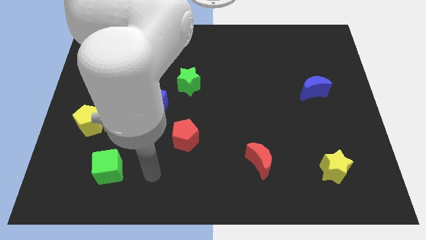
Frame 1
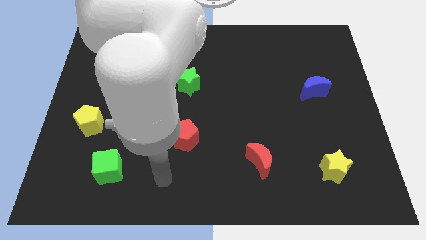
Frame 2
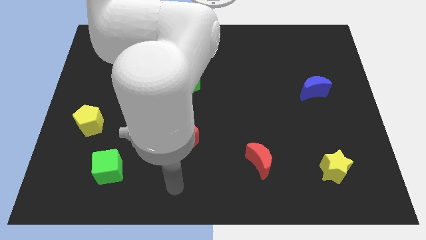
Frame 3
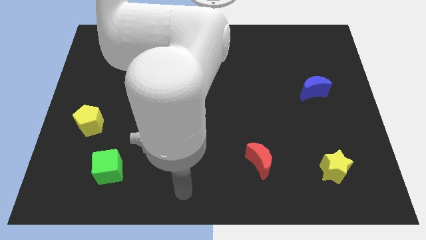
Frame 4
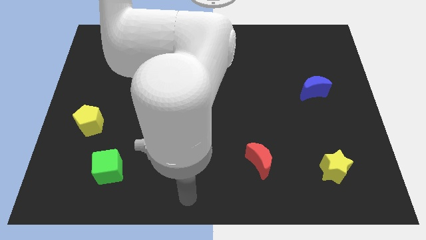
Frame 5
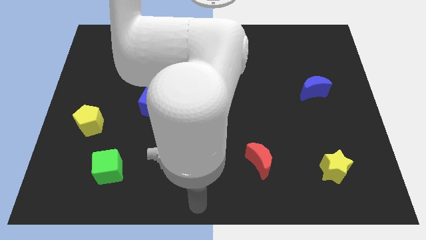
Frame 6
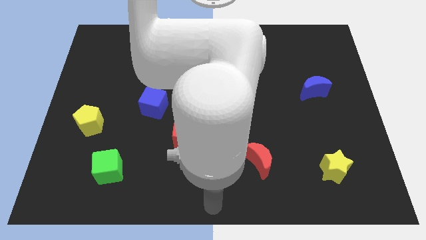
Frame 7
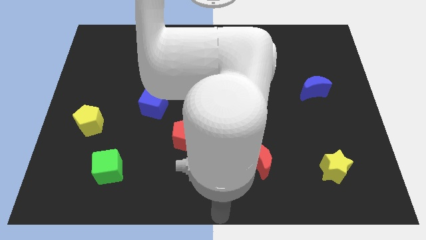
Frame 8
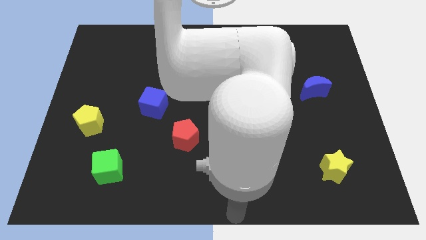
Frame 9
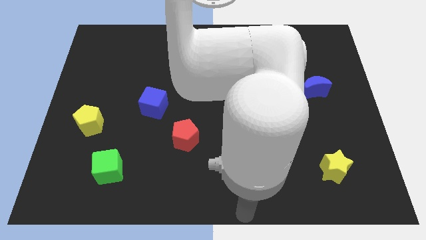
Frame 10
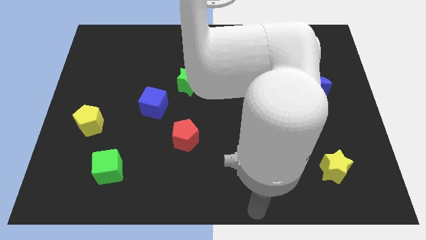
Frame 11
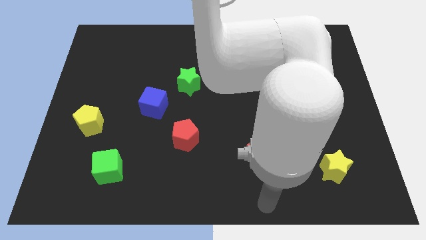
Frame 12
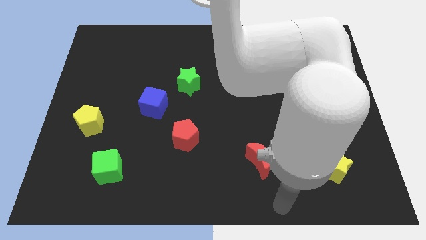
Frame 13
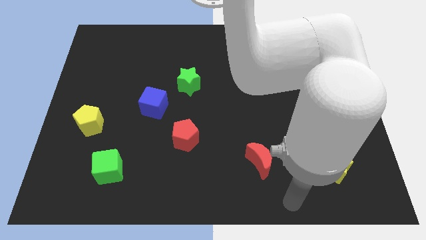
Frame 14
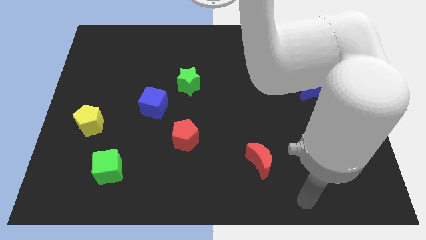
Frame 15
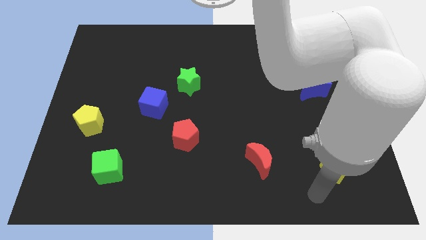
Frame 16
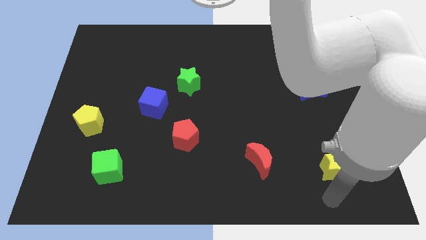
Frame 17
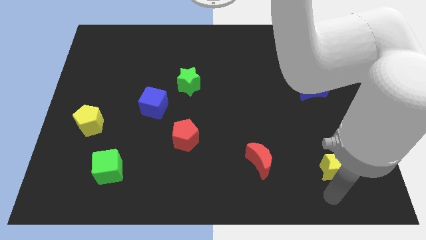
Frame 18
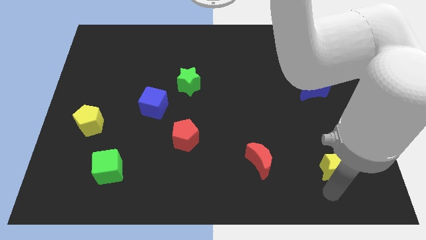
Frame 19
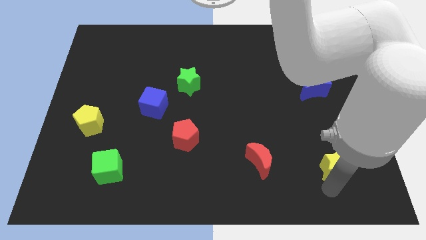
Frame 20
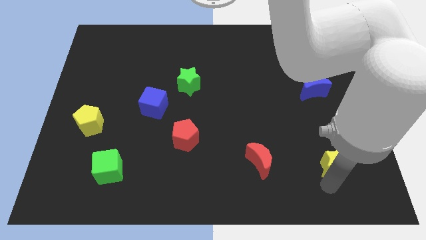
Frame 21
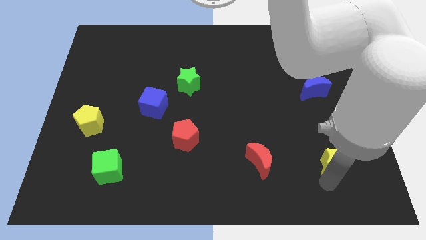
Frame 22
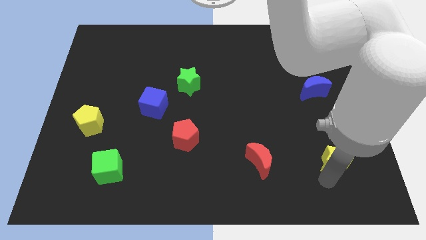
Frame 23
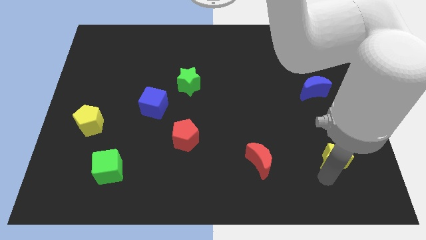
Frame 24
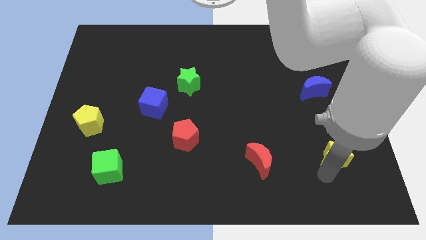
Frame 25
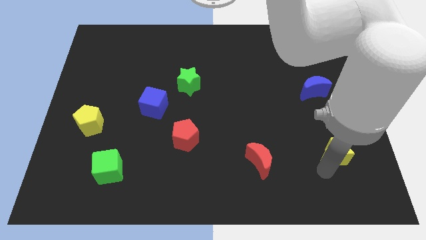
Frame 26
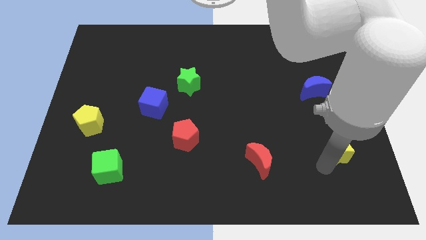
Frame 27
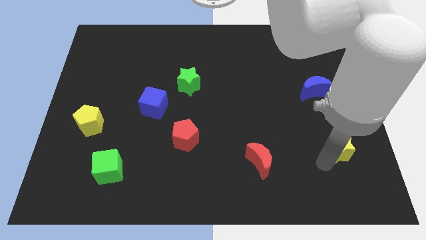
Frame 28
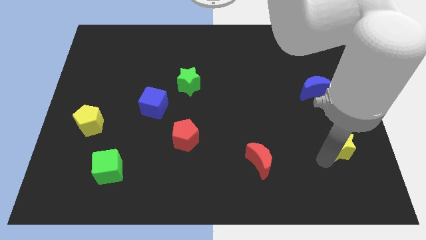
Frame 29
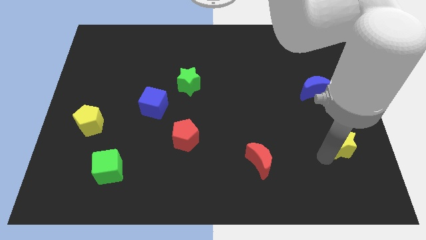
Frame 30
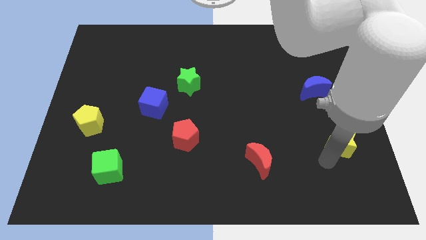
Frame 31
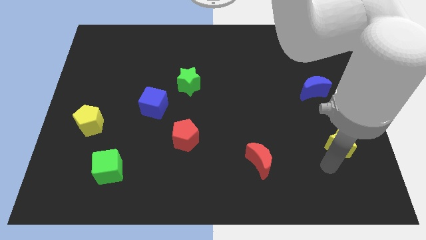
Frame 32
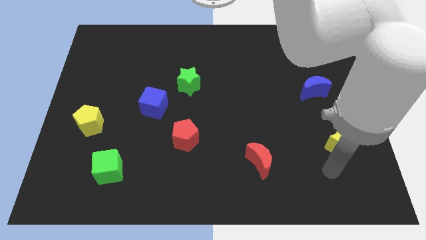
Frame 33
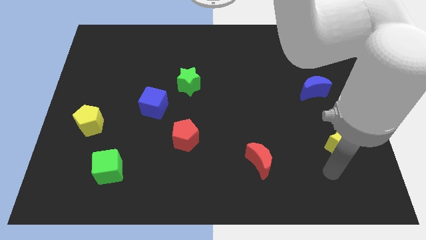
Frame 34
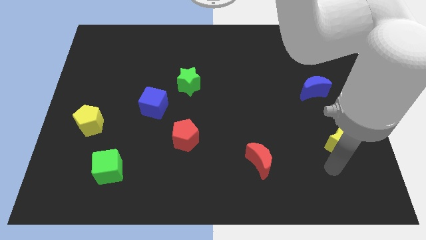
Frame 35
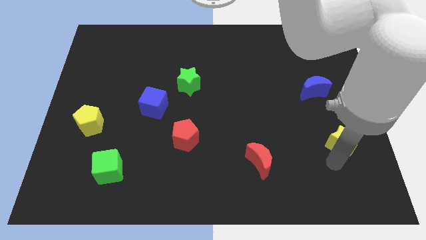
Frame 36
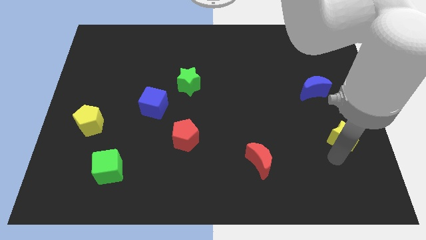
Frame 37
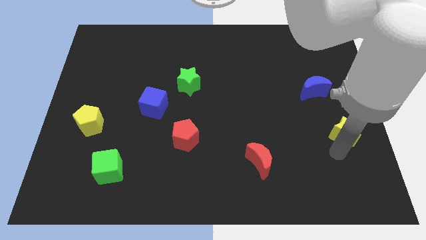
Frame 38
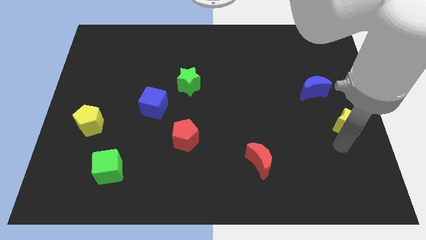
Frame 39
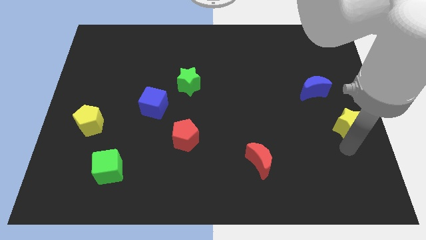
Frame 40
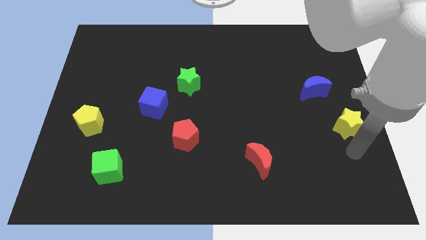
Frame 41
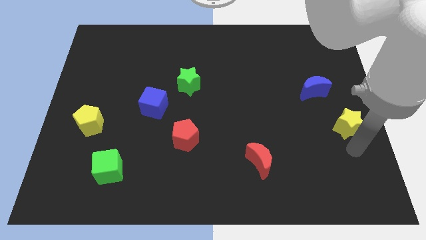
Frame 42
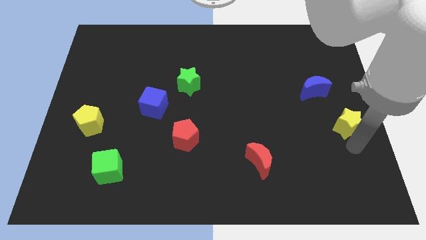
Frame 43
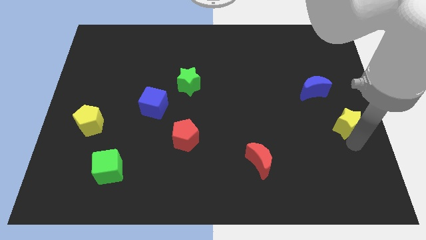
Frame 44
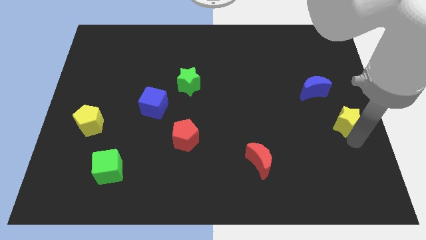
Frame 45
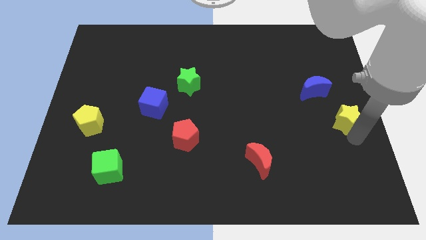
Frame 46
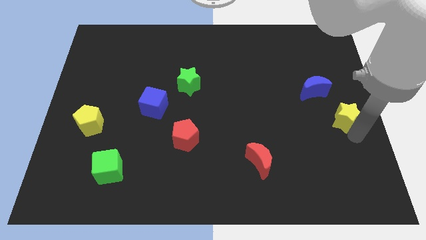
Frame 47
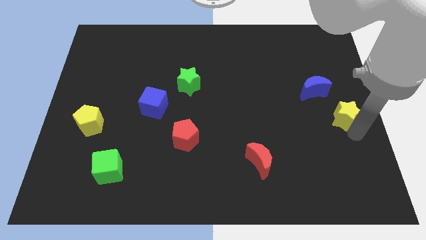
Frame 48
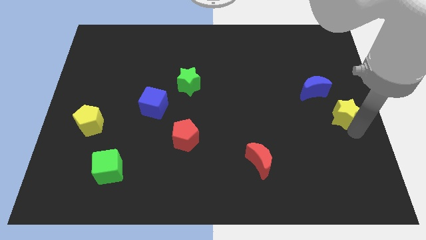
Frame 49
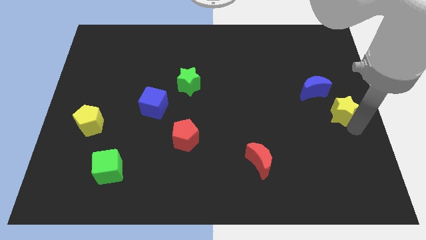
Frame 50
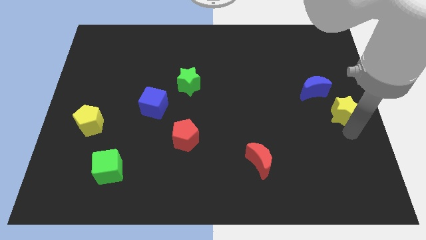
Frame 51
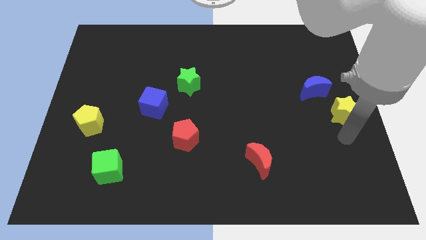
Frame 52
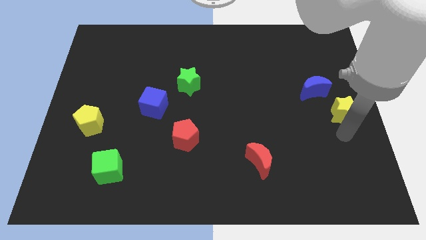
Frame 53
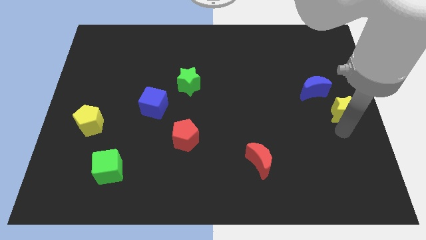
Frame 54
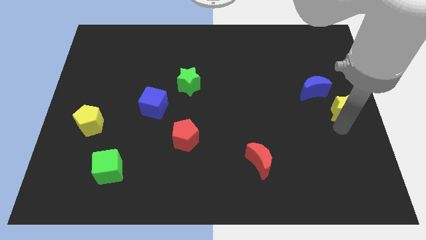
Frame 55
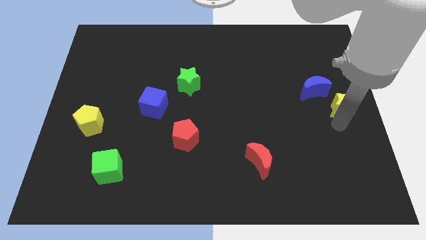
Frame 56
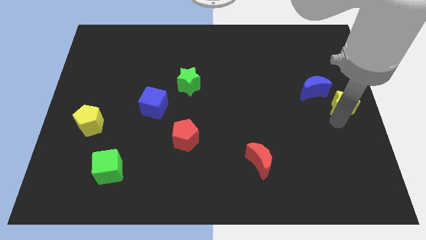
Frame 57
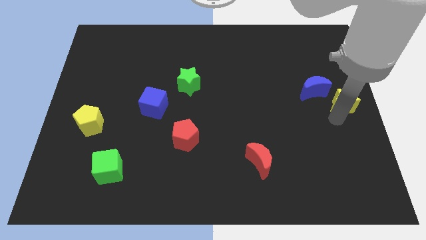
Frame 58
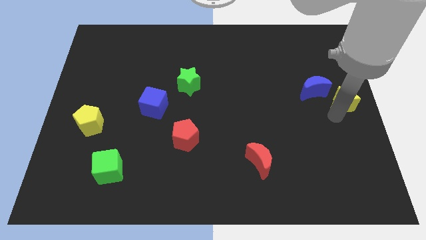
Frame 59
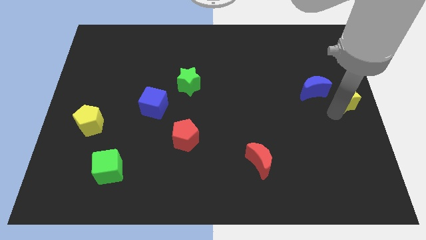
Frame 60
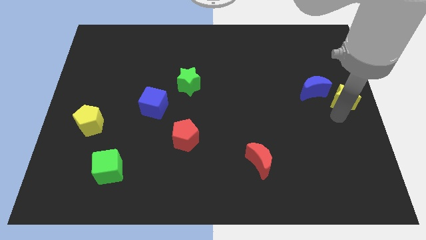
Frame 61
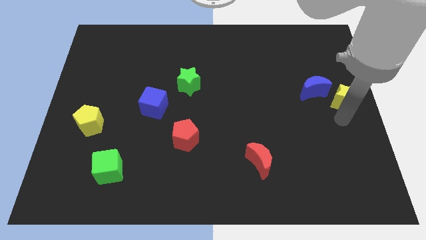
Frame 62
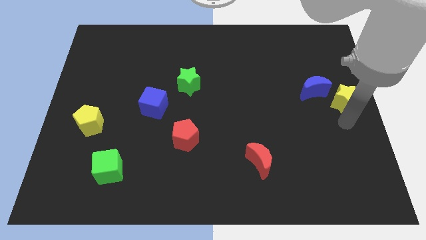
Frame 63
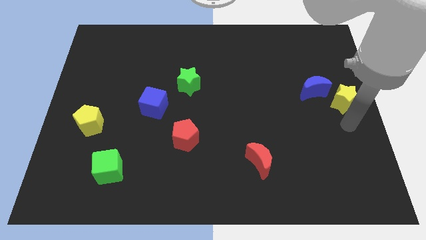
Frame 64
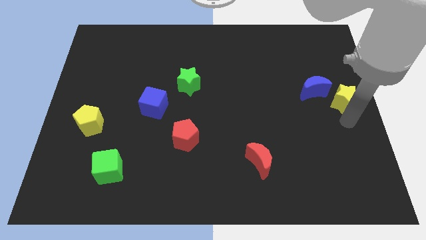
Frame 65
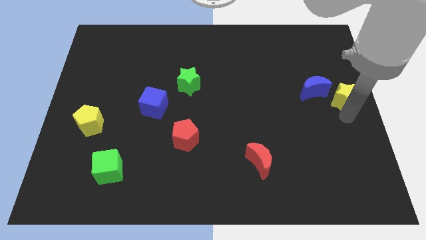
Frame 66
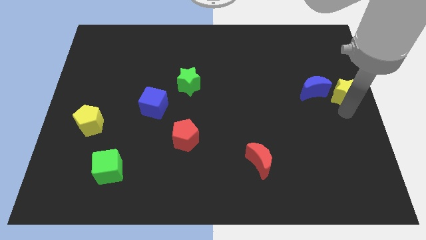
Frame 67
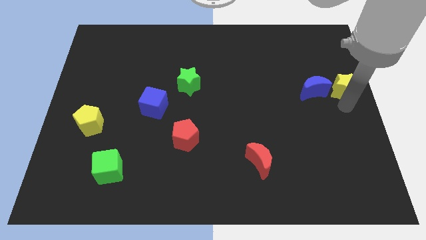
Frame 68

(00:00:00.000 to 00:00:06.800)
move the yellow star upwards

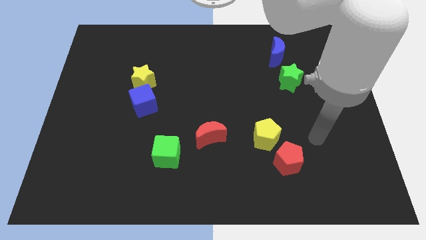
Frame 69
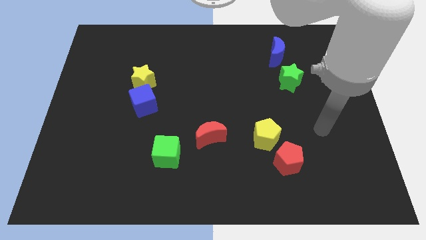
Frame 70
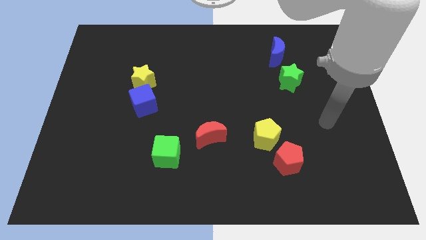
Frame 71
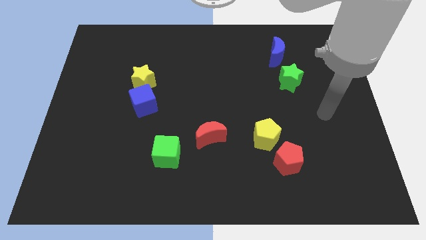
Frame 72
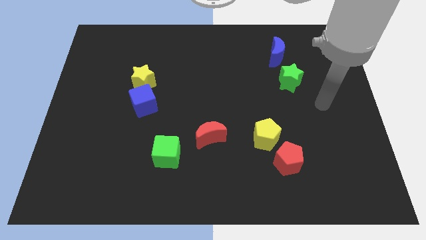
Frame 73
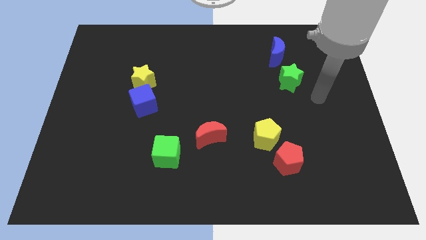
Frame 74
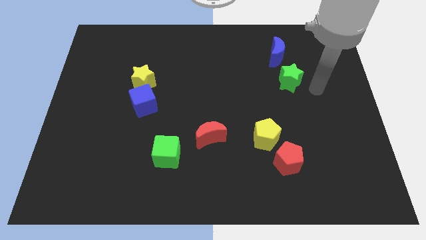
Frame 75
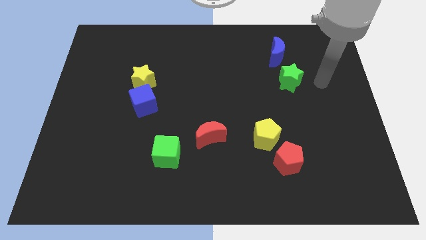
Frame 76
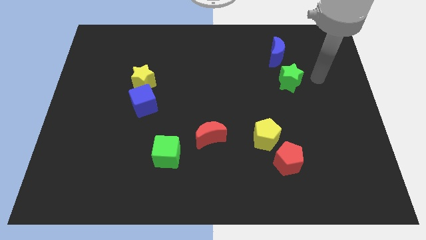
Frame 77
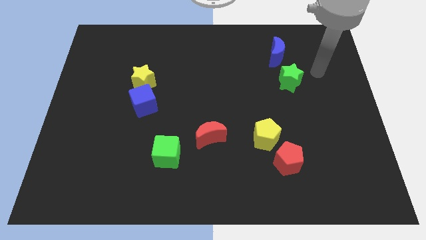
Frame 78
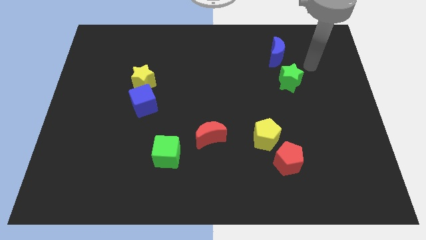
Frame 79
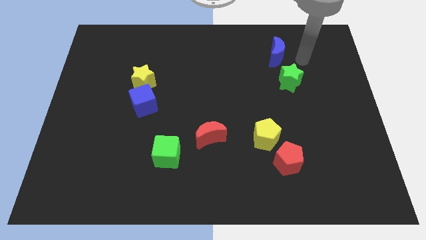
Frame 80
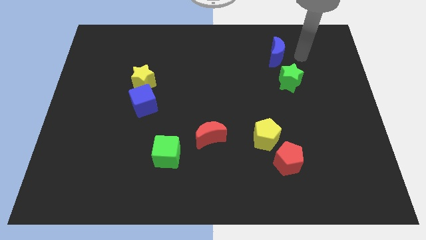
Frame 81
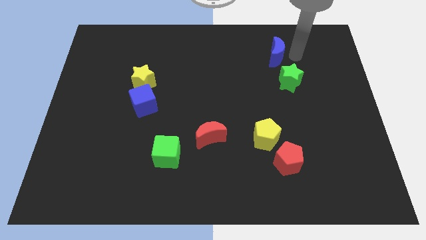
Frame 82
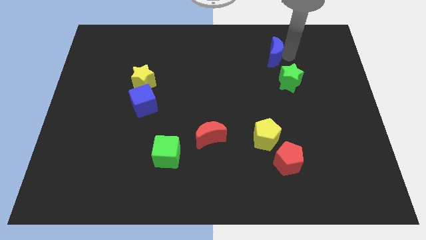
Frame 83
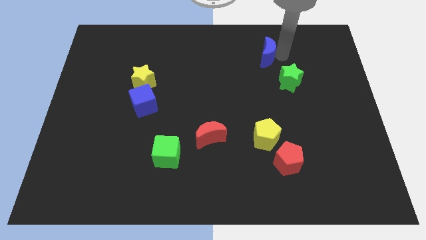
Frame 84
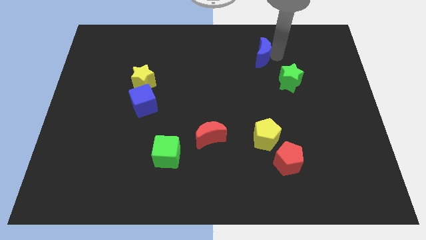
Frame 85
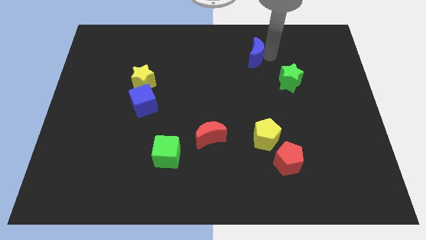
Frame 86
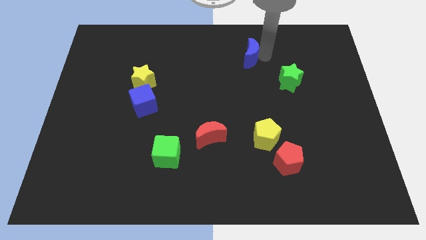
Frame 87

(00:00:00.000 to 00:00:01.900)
slightly push the blue moon left
